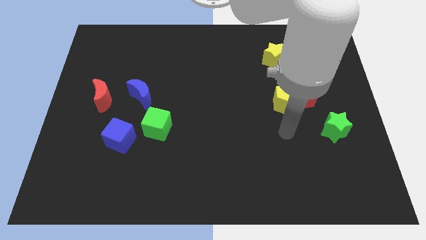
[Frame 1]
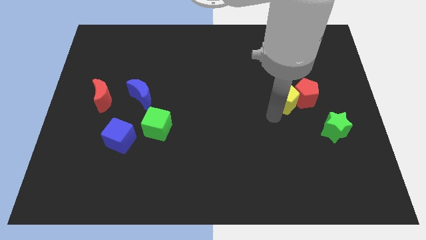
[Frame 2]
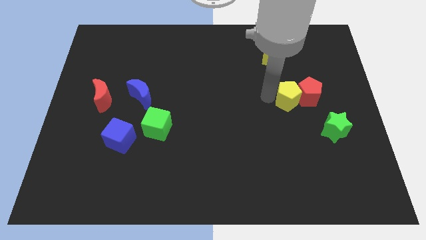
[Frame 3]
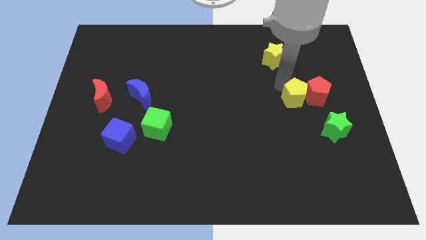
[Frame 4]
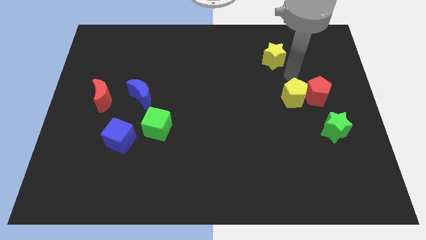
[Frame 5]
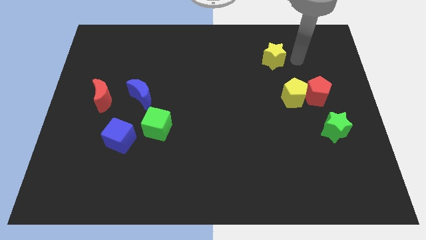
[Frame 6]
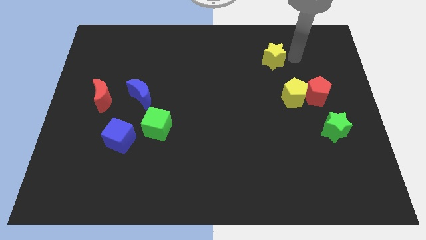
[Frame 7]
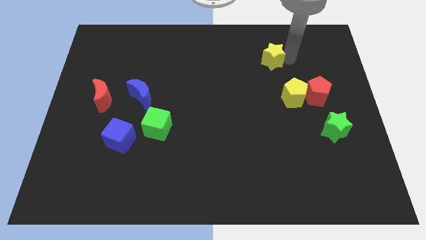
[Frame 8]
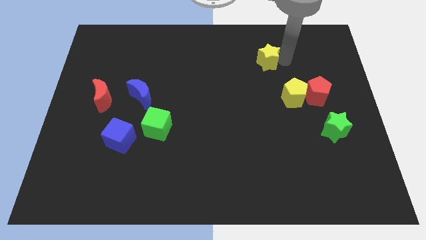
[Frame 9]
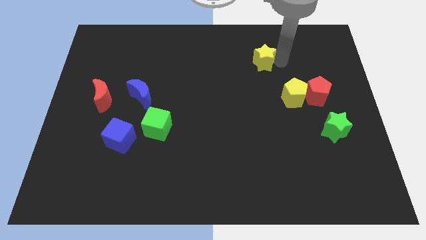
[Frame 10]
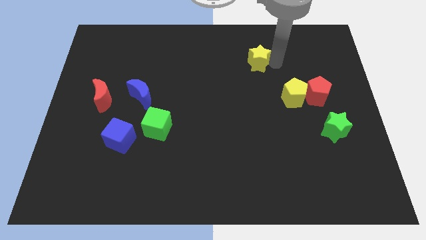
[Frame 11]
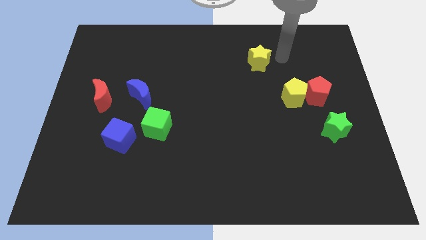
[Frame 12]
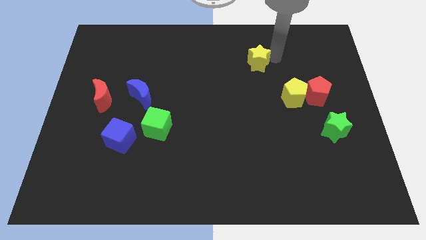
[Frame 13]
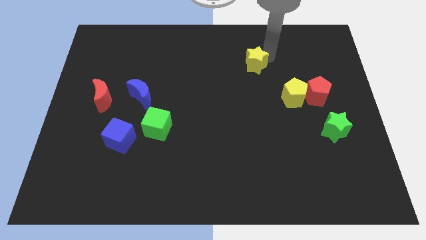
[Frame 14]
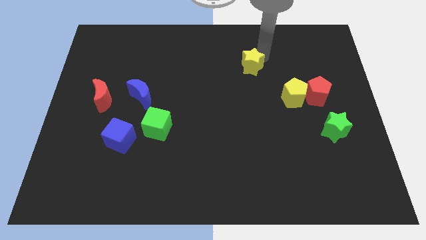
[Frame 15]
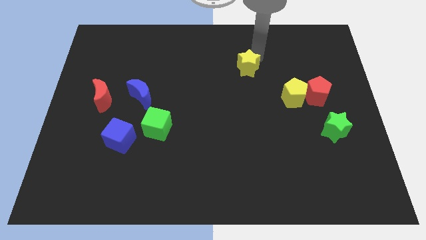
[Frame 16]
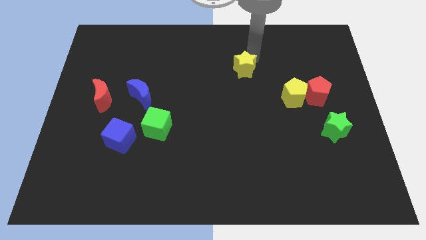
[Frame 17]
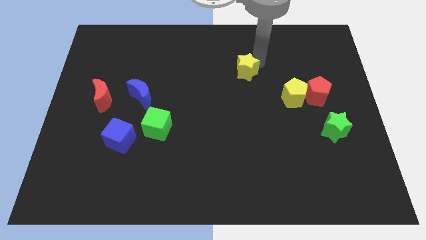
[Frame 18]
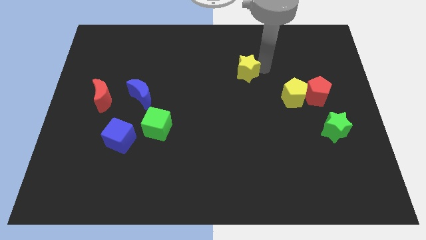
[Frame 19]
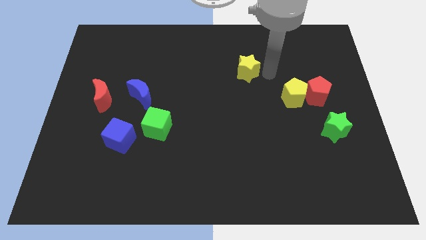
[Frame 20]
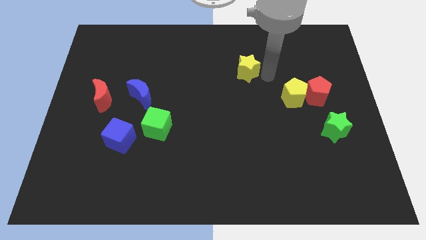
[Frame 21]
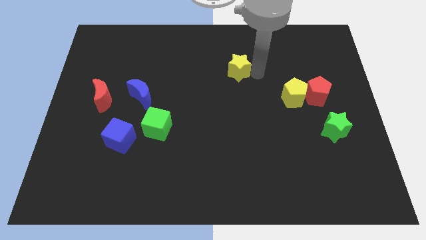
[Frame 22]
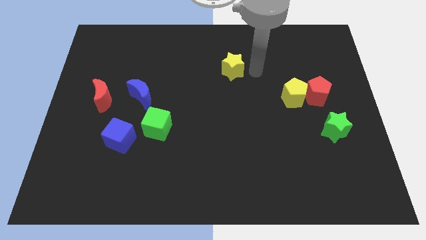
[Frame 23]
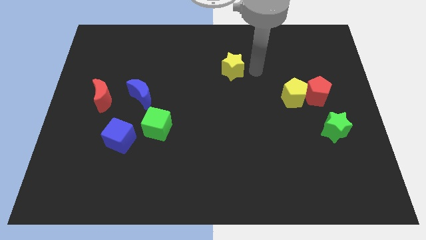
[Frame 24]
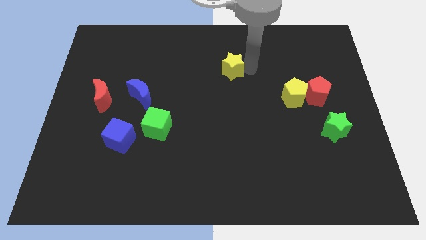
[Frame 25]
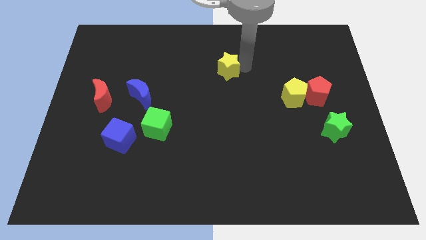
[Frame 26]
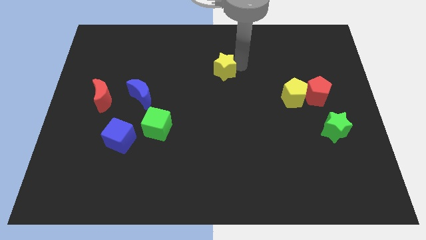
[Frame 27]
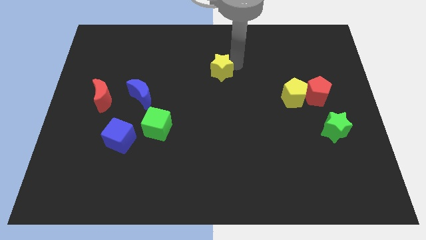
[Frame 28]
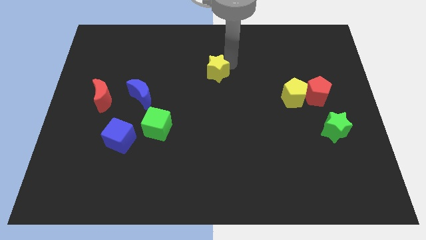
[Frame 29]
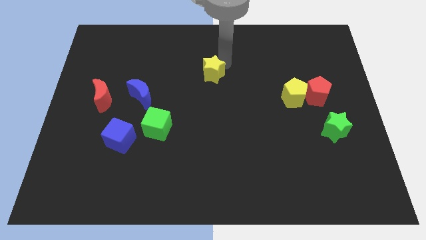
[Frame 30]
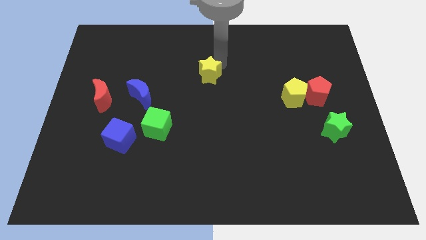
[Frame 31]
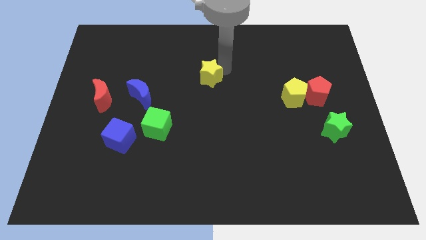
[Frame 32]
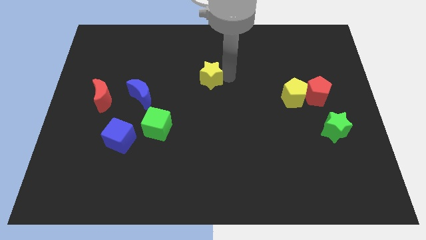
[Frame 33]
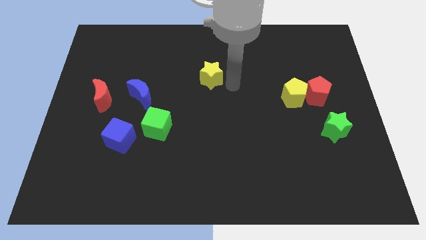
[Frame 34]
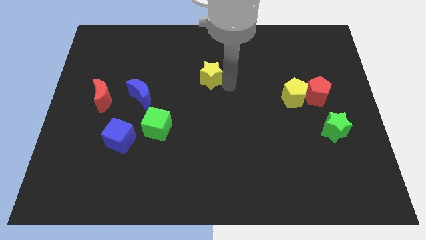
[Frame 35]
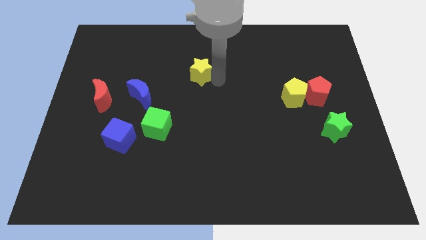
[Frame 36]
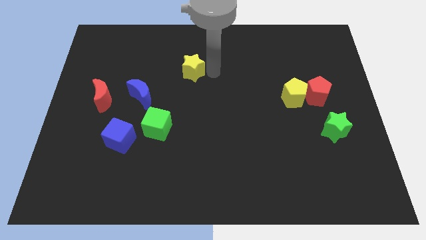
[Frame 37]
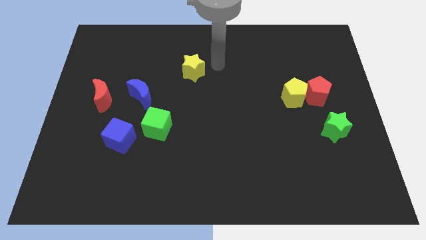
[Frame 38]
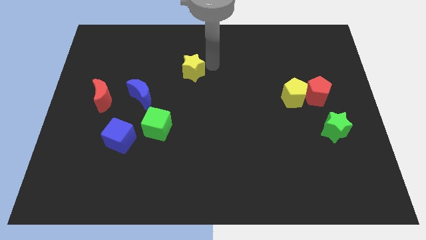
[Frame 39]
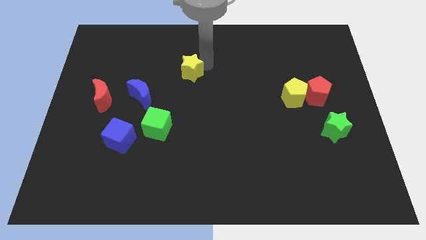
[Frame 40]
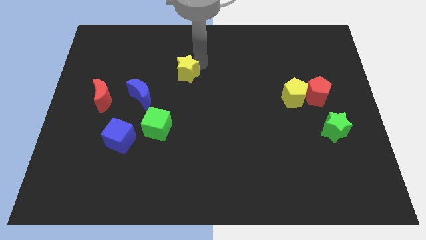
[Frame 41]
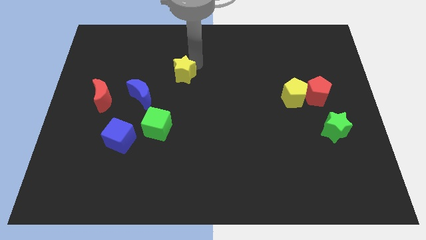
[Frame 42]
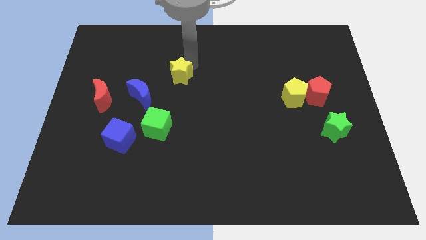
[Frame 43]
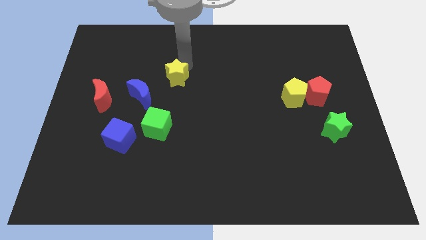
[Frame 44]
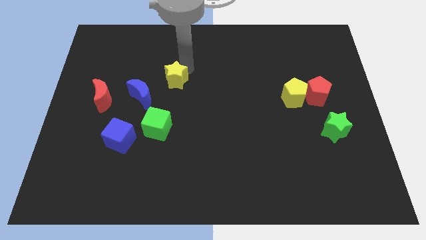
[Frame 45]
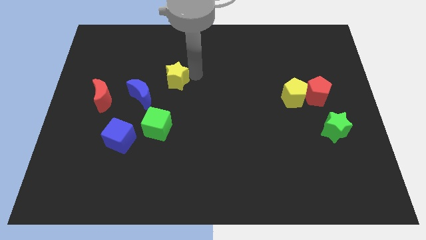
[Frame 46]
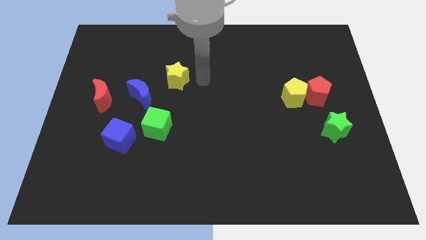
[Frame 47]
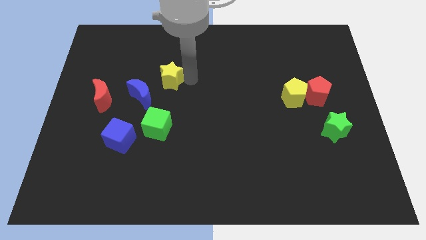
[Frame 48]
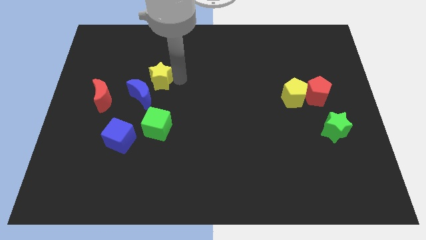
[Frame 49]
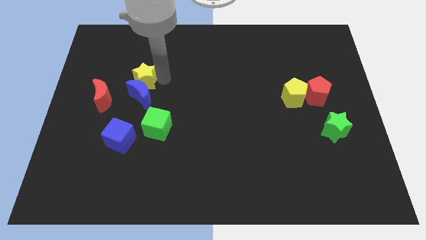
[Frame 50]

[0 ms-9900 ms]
push the yellow star to the top left of the blue moon

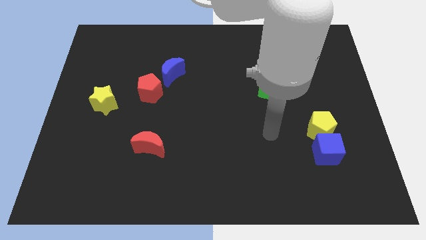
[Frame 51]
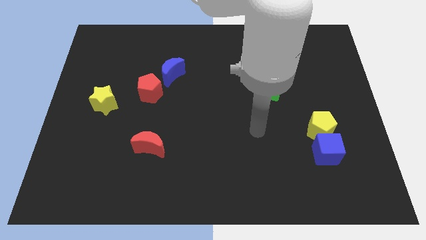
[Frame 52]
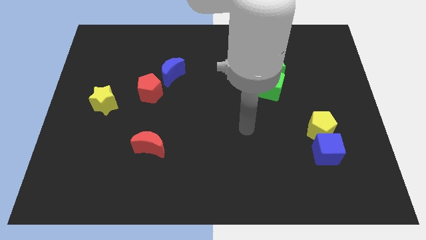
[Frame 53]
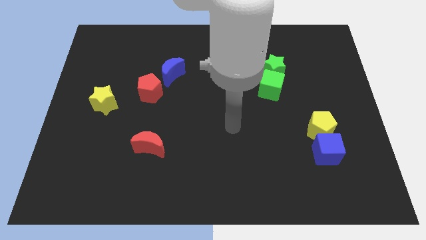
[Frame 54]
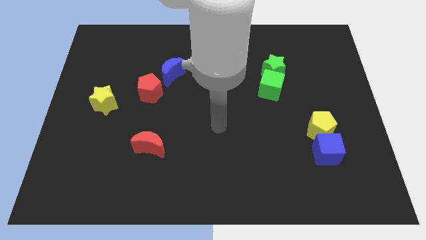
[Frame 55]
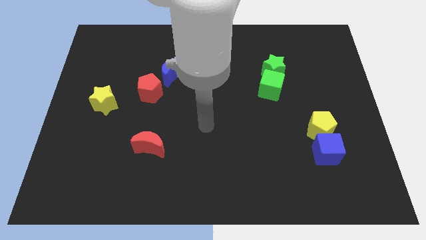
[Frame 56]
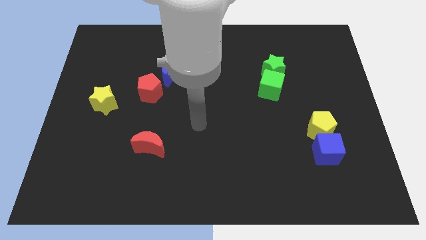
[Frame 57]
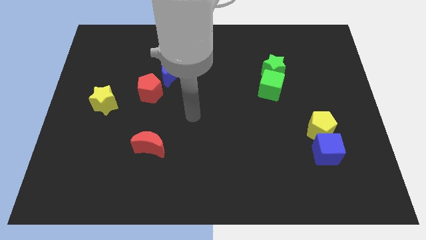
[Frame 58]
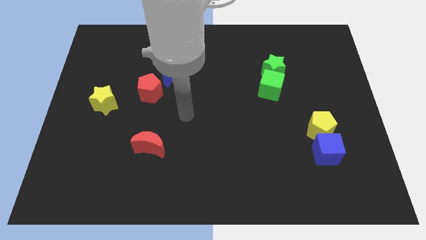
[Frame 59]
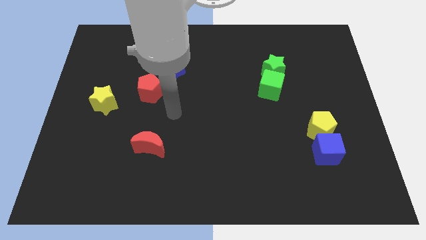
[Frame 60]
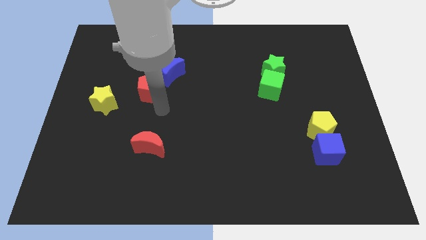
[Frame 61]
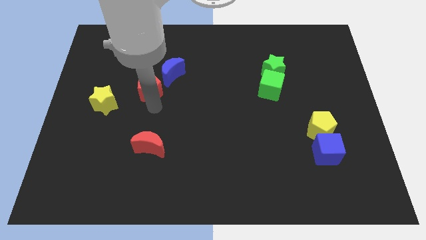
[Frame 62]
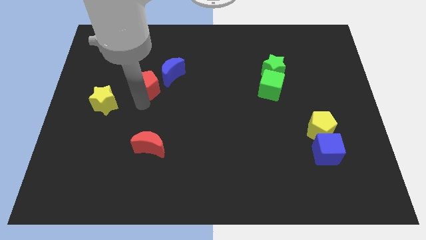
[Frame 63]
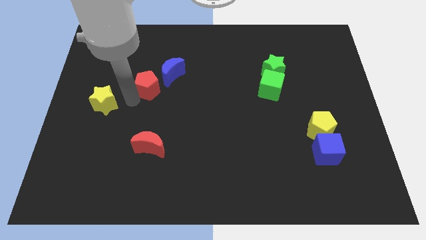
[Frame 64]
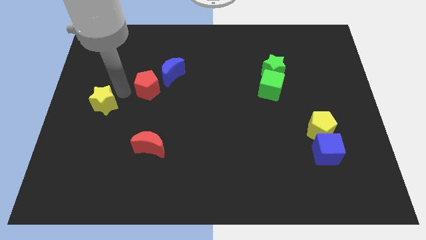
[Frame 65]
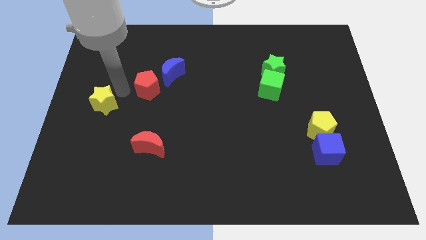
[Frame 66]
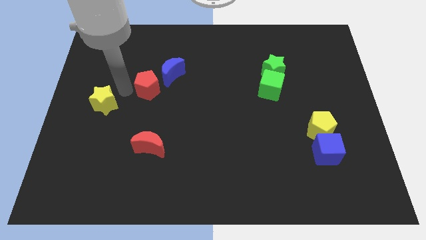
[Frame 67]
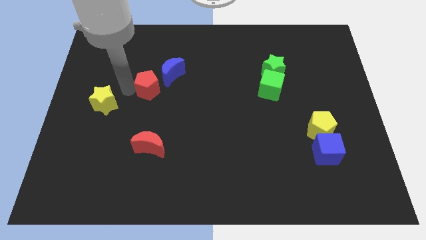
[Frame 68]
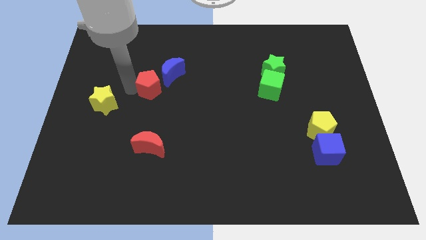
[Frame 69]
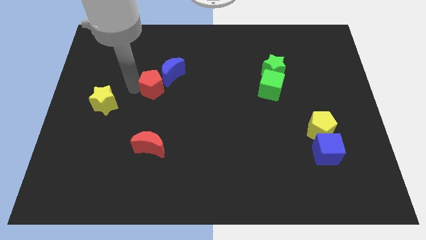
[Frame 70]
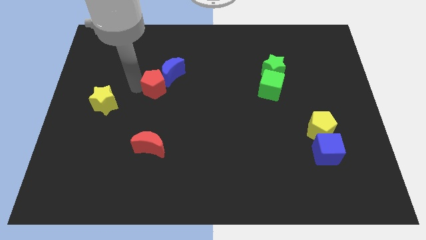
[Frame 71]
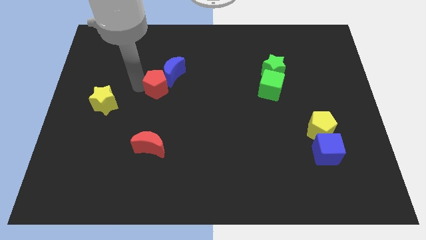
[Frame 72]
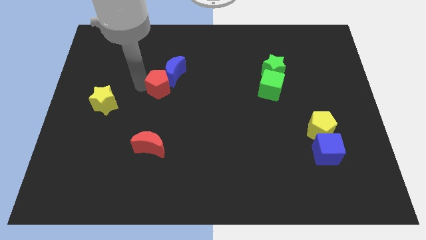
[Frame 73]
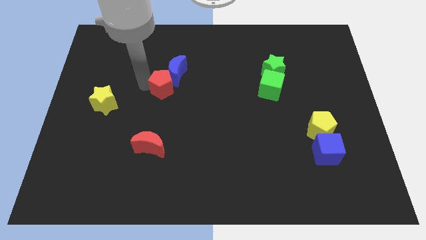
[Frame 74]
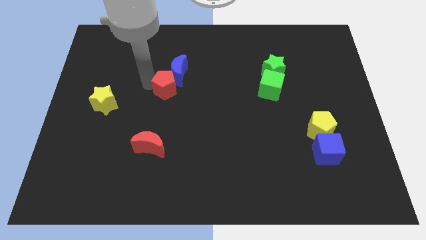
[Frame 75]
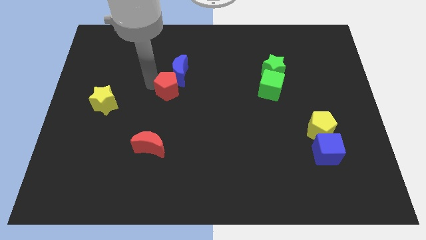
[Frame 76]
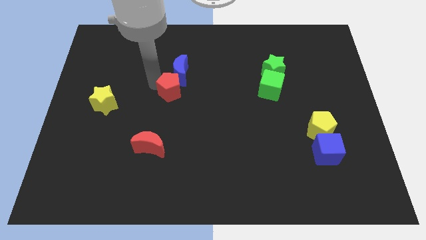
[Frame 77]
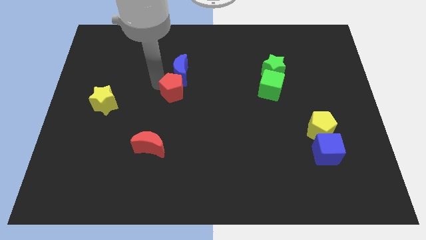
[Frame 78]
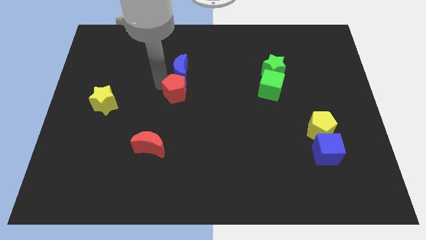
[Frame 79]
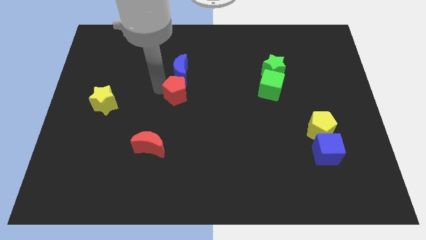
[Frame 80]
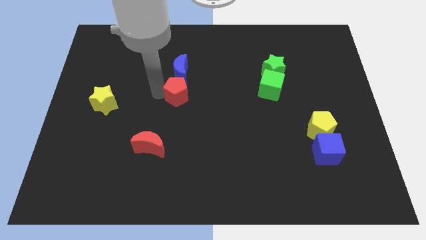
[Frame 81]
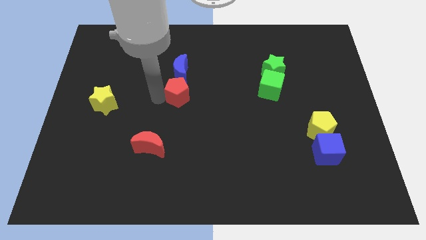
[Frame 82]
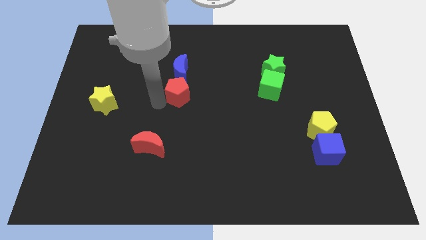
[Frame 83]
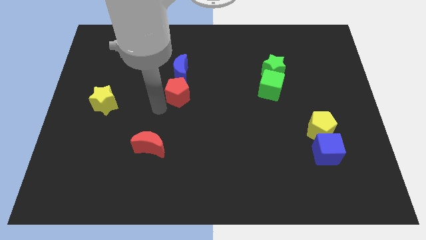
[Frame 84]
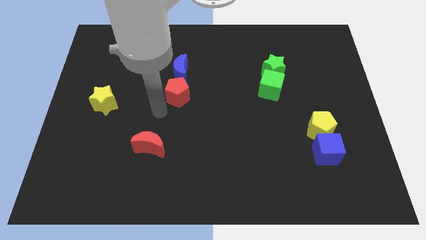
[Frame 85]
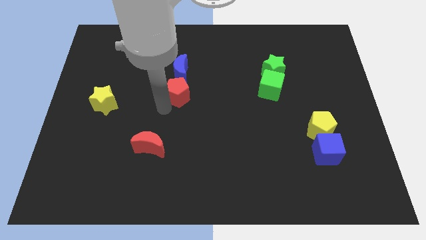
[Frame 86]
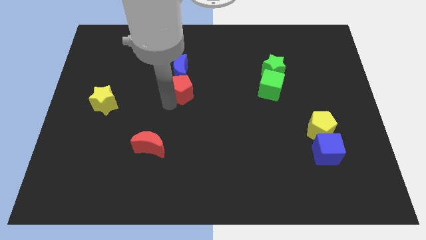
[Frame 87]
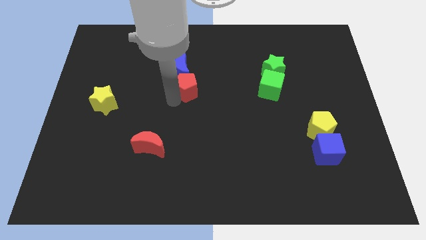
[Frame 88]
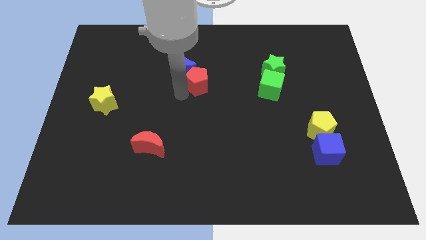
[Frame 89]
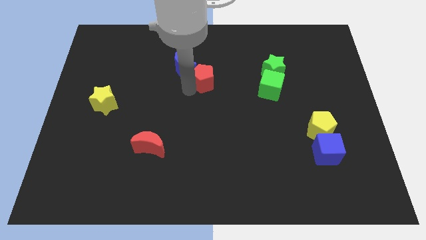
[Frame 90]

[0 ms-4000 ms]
move the red pentagon to the right side of the blue moon
